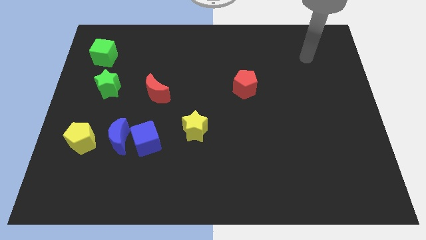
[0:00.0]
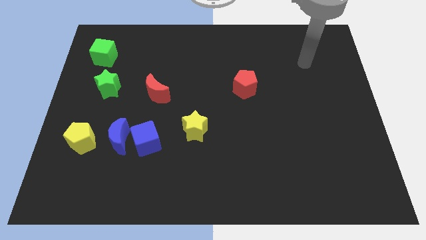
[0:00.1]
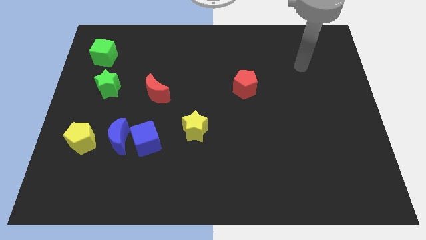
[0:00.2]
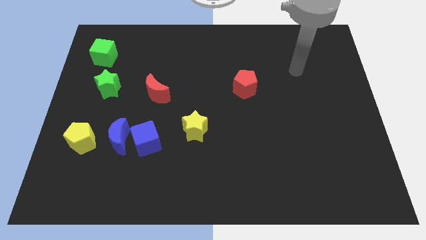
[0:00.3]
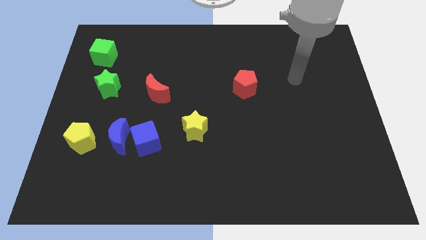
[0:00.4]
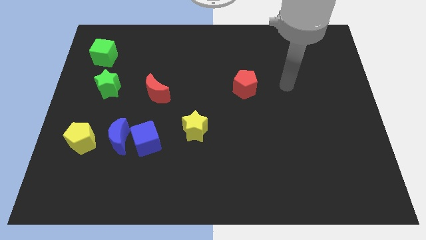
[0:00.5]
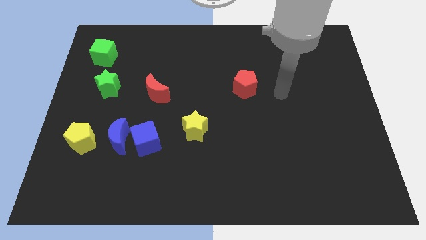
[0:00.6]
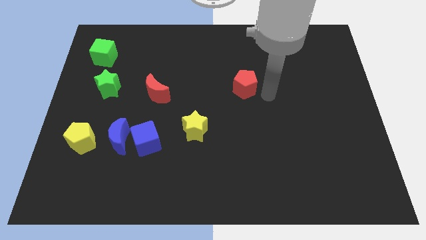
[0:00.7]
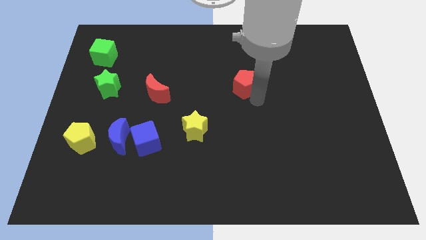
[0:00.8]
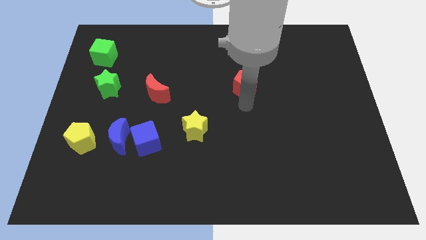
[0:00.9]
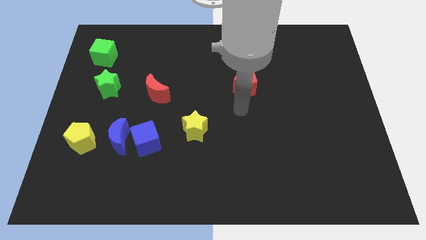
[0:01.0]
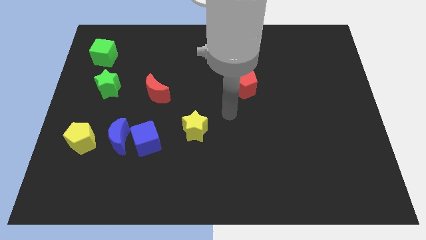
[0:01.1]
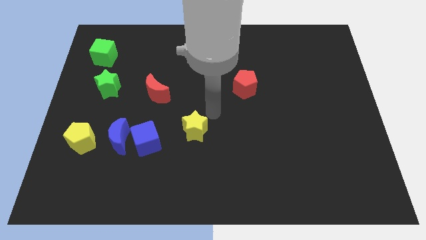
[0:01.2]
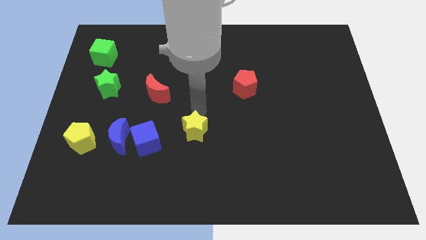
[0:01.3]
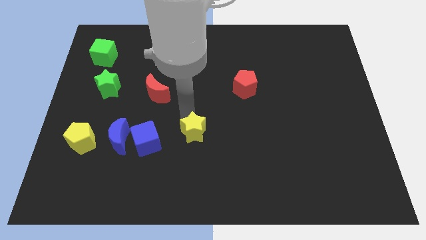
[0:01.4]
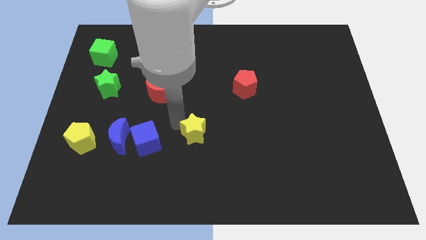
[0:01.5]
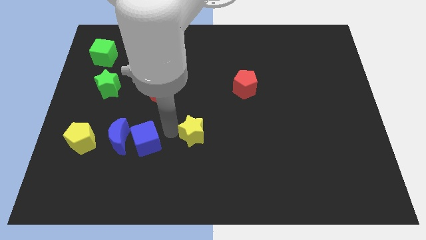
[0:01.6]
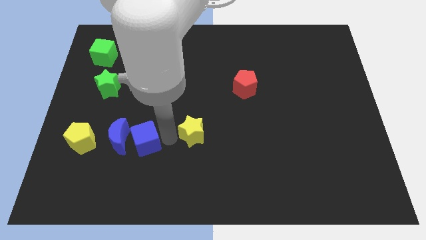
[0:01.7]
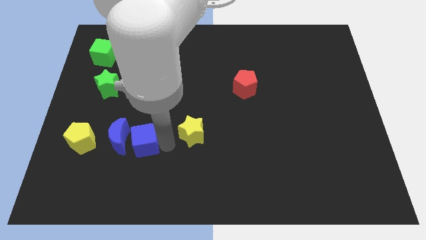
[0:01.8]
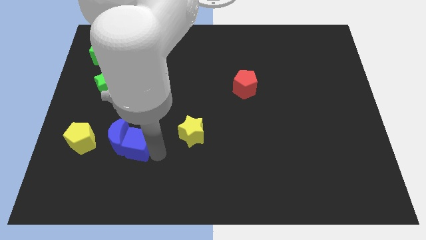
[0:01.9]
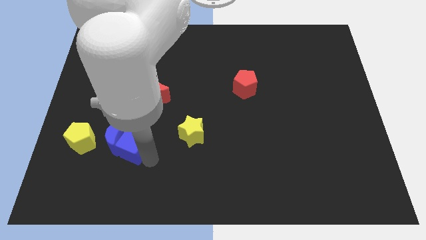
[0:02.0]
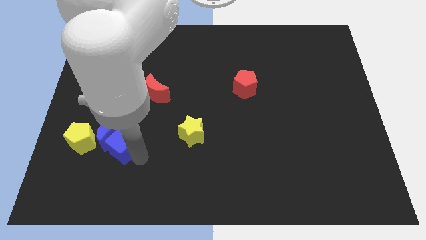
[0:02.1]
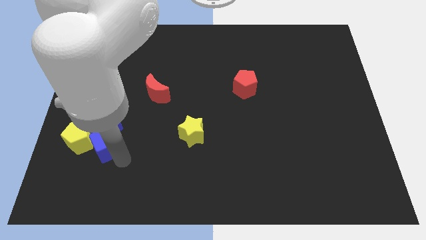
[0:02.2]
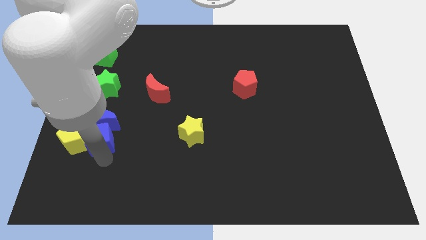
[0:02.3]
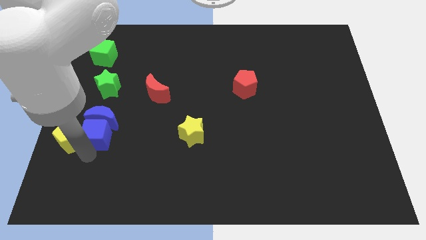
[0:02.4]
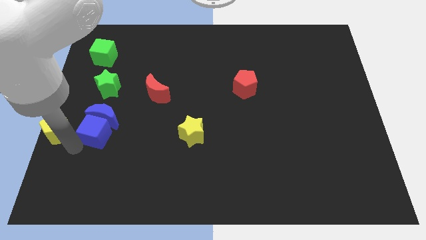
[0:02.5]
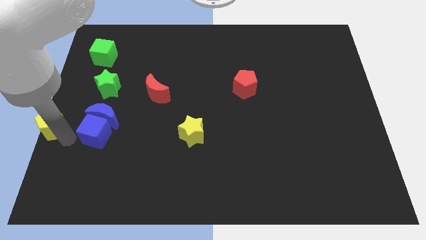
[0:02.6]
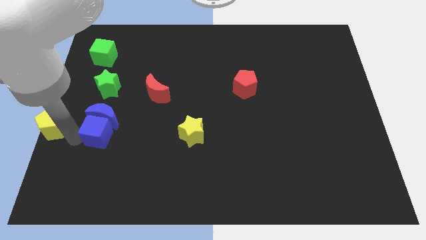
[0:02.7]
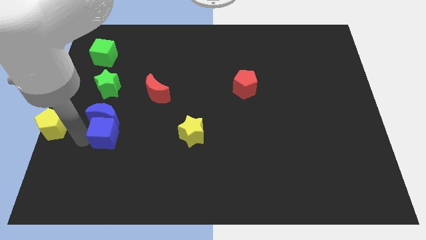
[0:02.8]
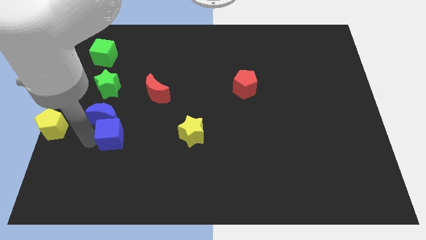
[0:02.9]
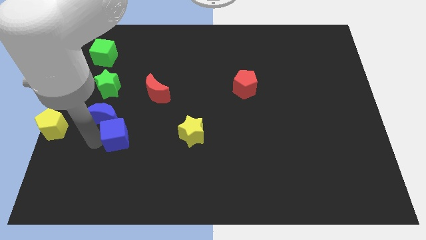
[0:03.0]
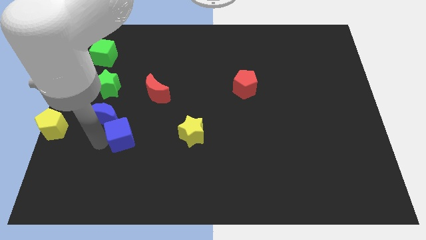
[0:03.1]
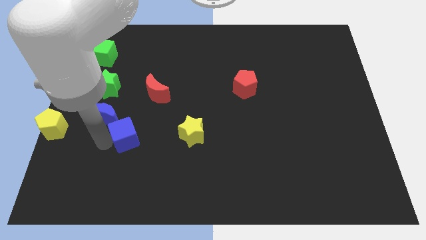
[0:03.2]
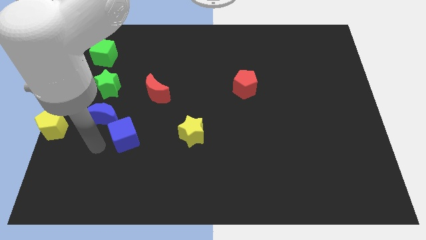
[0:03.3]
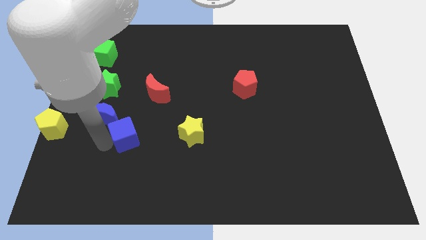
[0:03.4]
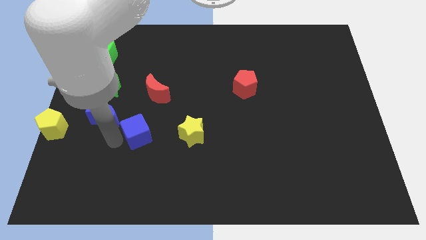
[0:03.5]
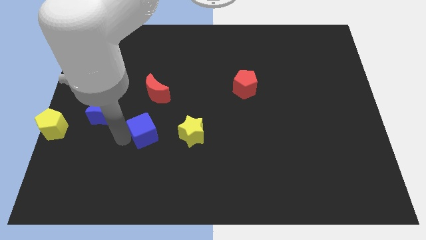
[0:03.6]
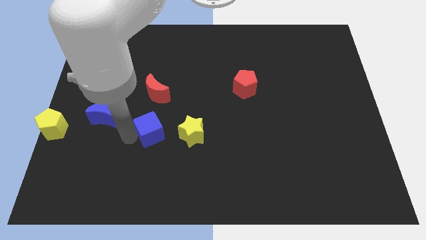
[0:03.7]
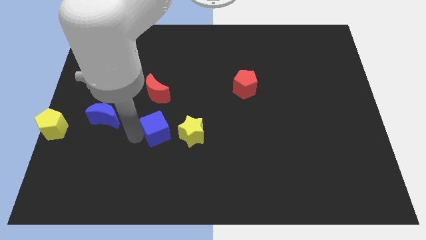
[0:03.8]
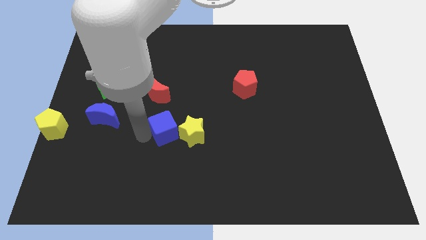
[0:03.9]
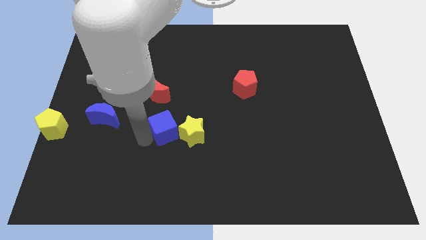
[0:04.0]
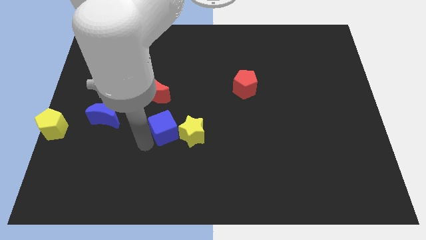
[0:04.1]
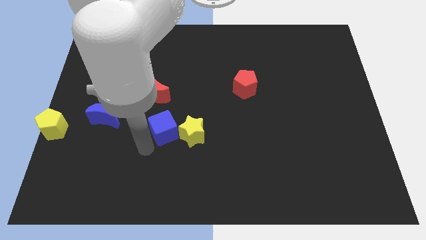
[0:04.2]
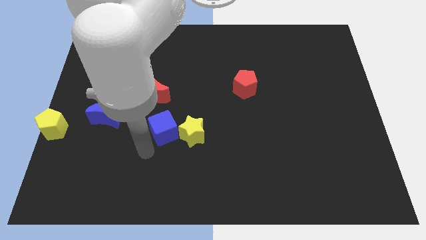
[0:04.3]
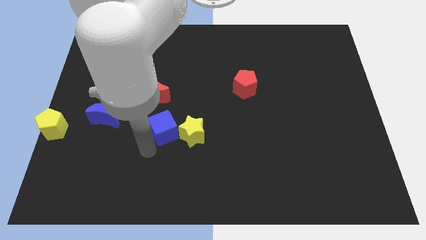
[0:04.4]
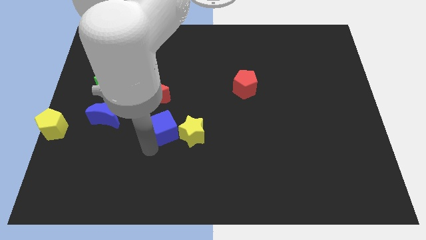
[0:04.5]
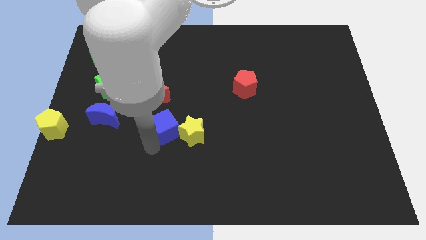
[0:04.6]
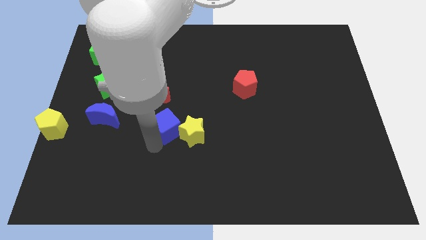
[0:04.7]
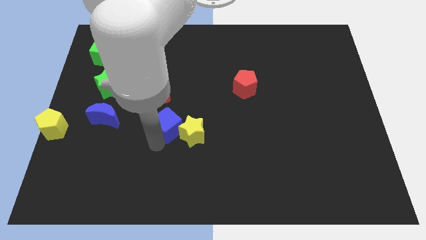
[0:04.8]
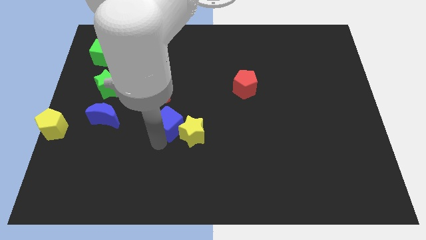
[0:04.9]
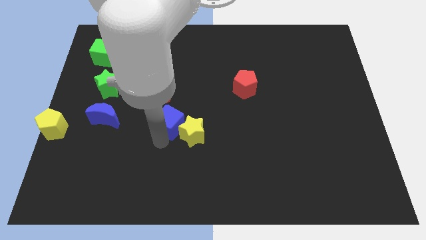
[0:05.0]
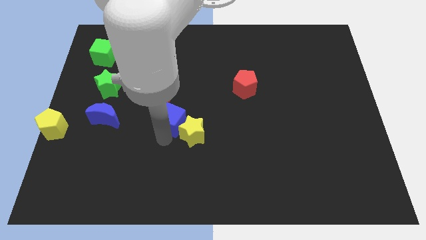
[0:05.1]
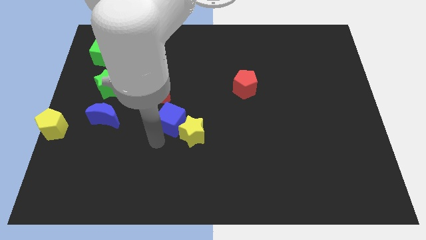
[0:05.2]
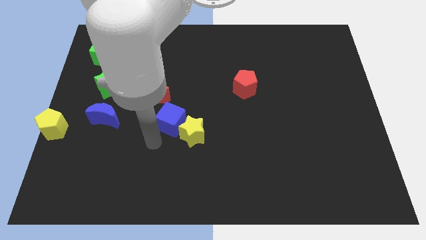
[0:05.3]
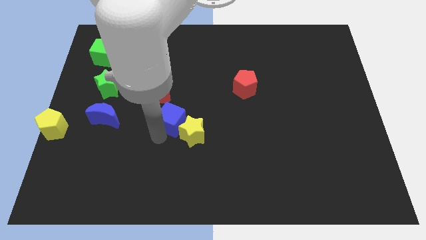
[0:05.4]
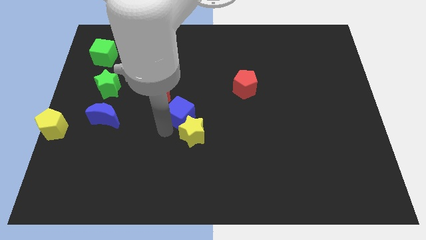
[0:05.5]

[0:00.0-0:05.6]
slide the blue cube above the yellow star

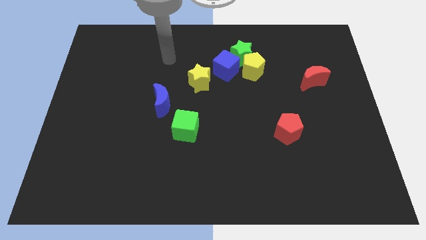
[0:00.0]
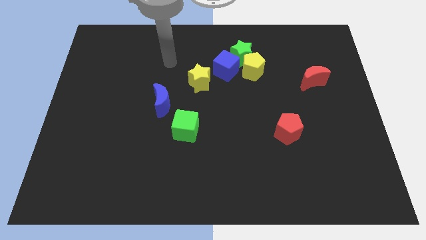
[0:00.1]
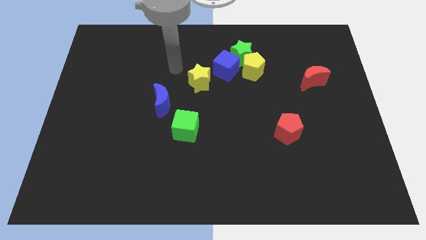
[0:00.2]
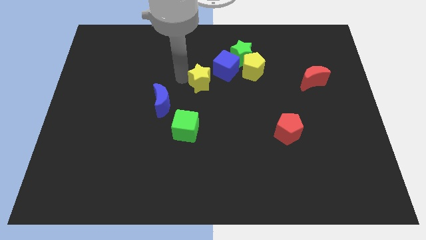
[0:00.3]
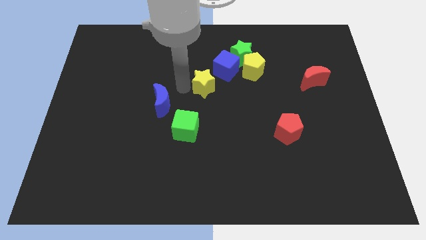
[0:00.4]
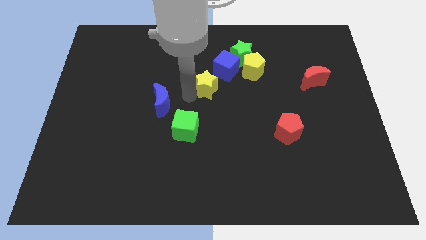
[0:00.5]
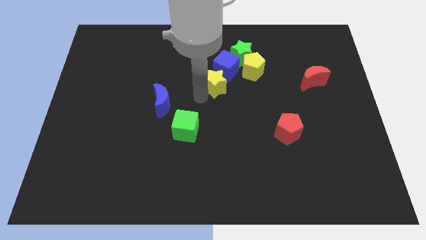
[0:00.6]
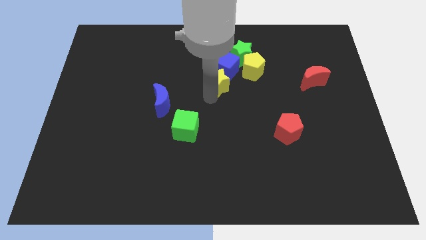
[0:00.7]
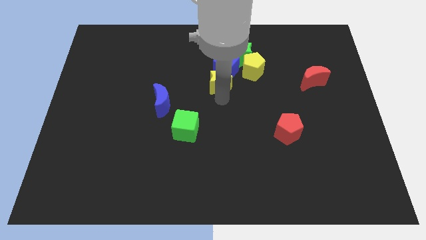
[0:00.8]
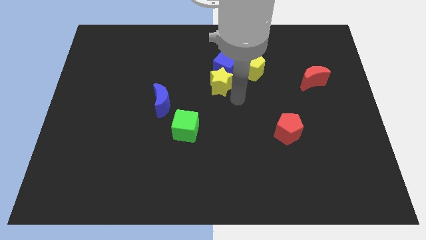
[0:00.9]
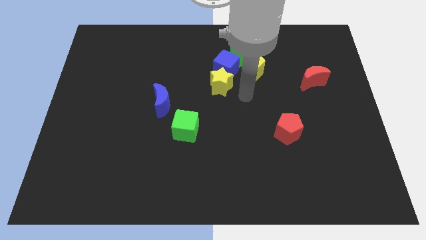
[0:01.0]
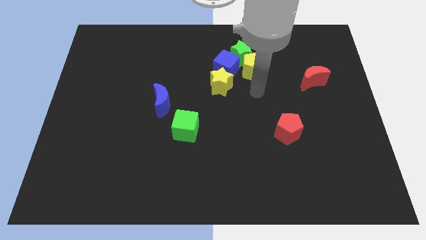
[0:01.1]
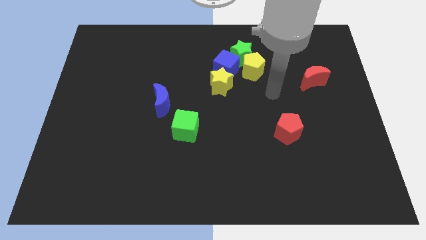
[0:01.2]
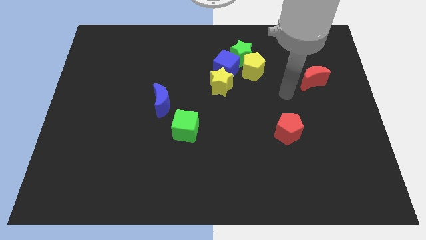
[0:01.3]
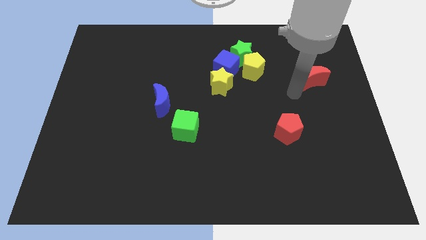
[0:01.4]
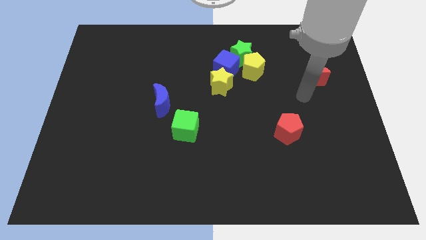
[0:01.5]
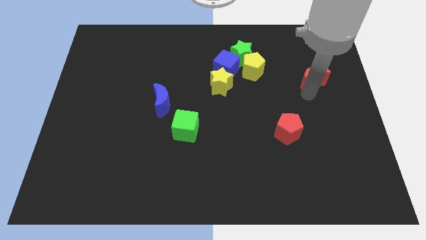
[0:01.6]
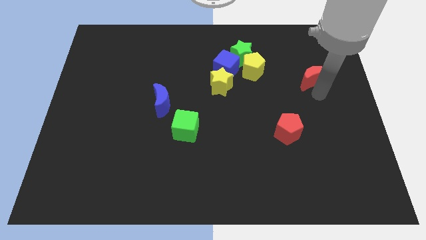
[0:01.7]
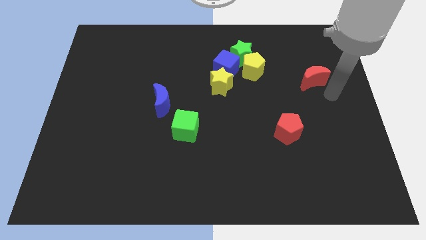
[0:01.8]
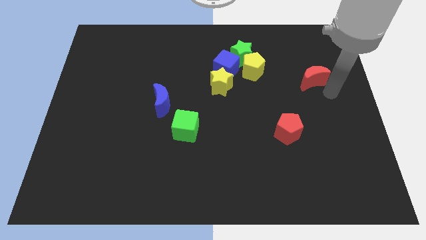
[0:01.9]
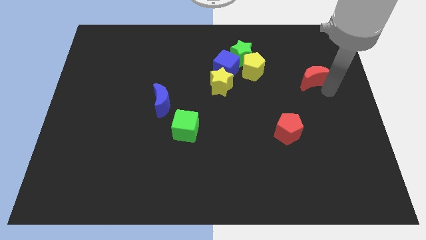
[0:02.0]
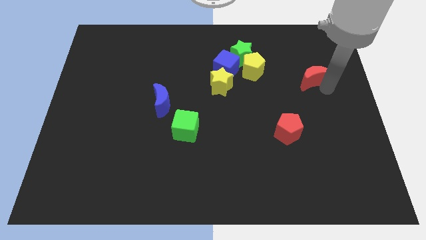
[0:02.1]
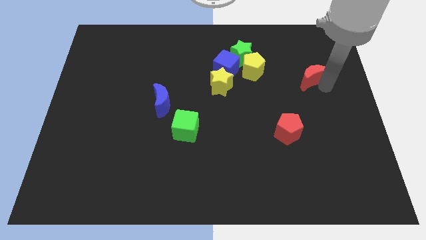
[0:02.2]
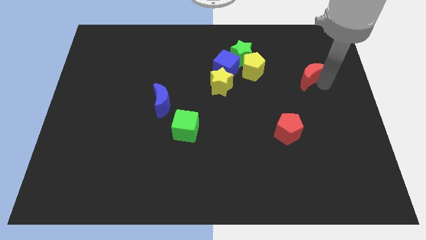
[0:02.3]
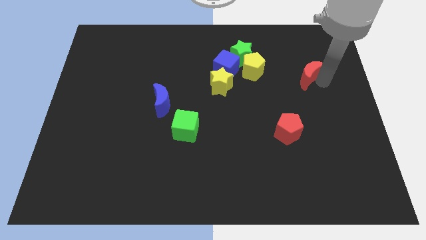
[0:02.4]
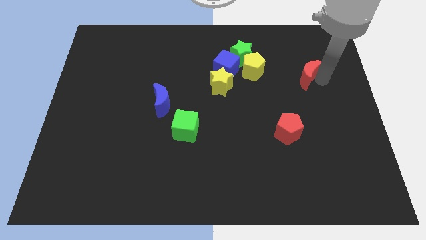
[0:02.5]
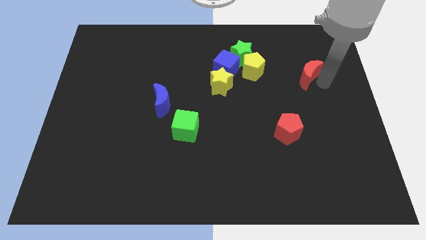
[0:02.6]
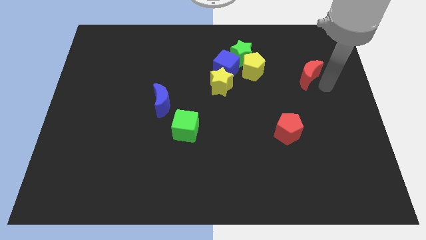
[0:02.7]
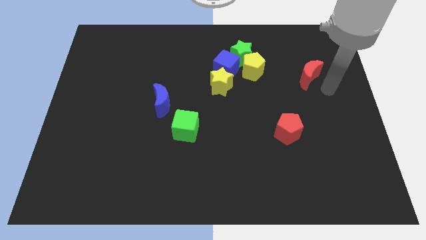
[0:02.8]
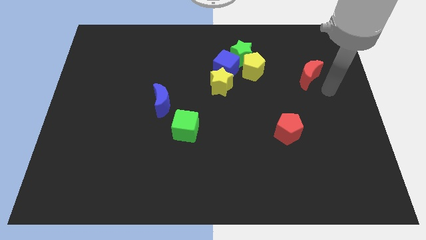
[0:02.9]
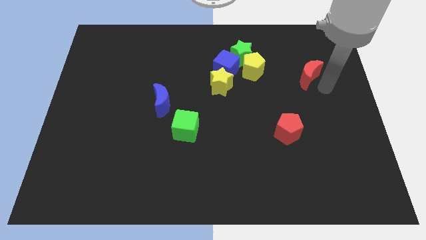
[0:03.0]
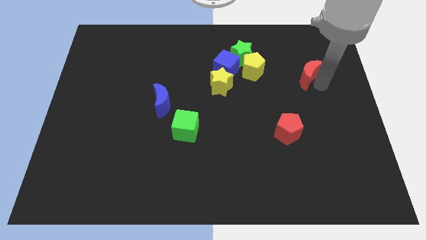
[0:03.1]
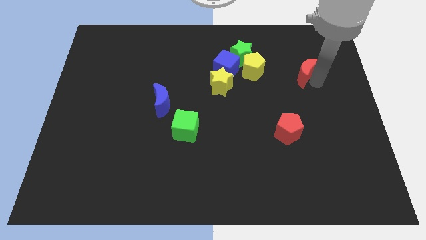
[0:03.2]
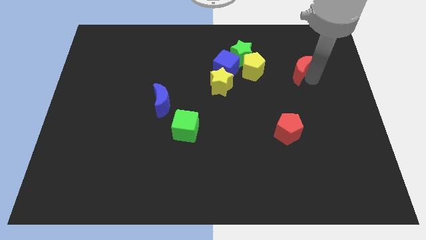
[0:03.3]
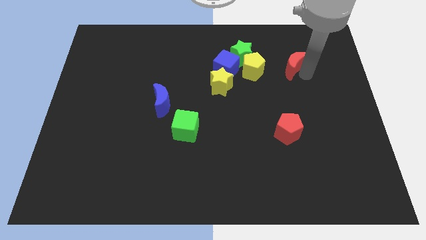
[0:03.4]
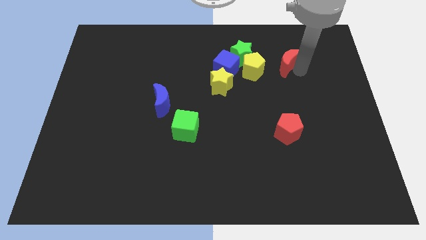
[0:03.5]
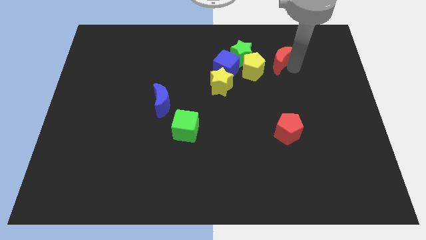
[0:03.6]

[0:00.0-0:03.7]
push the red moon diagonally up and to the right of the yellow pentagon
